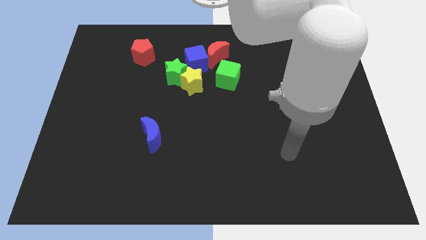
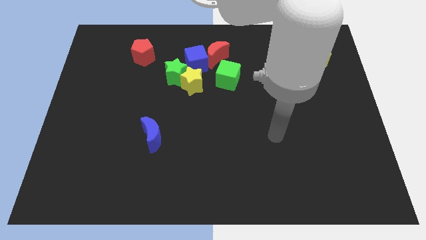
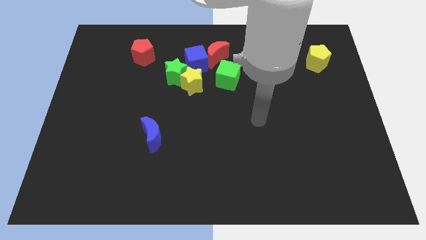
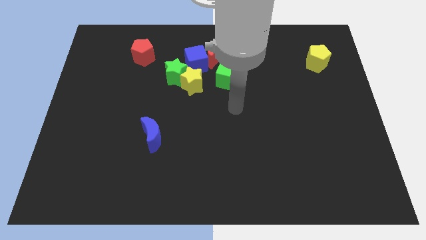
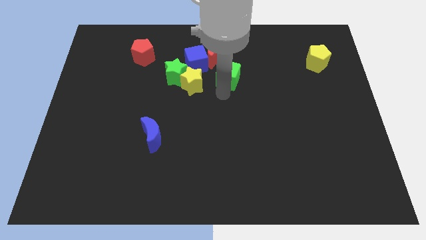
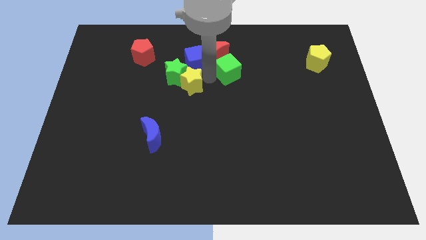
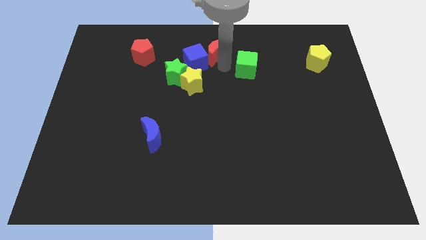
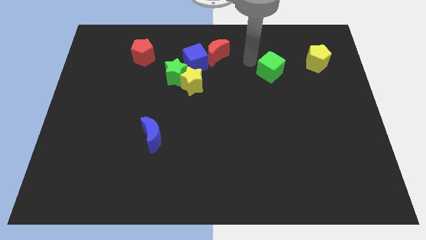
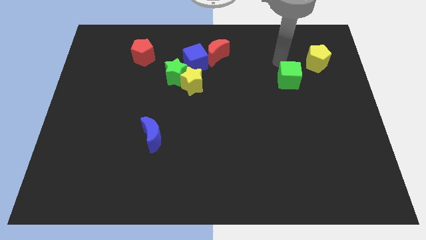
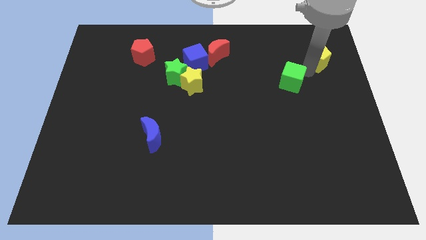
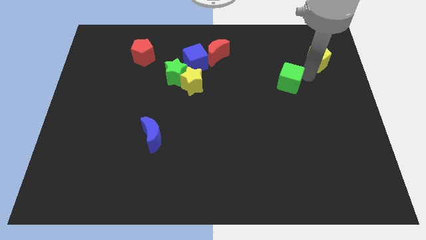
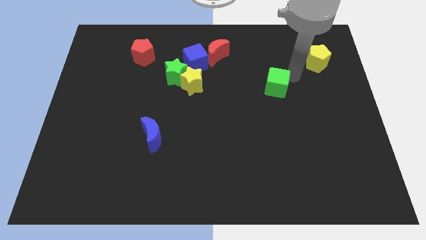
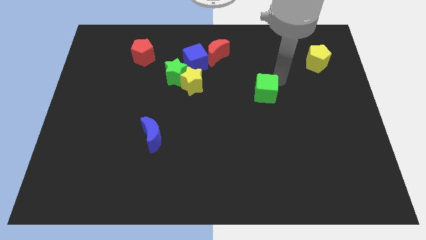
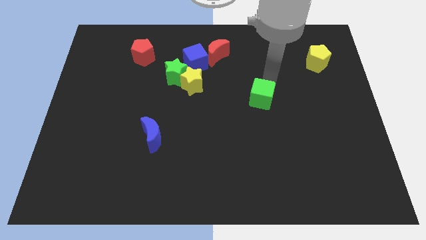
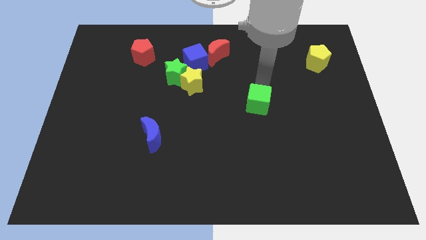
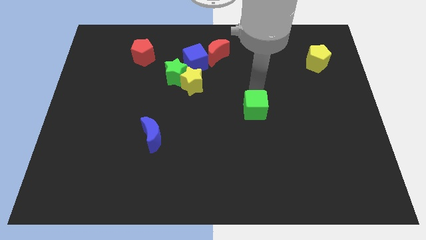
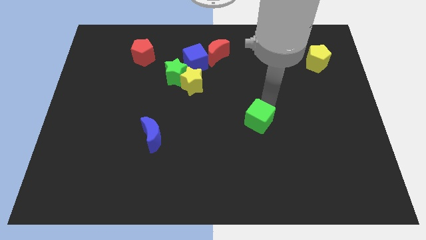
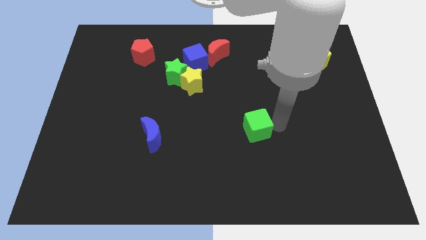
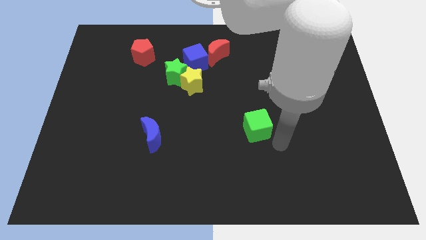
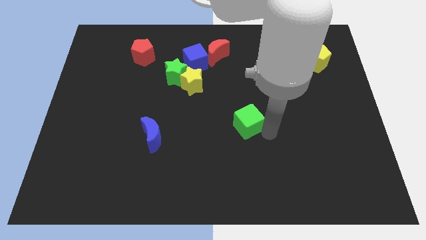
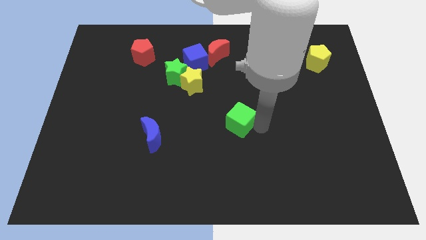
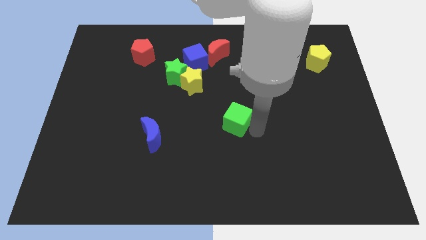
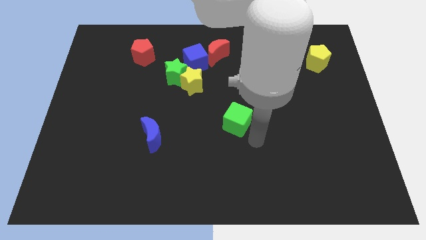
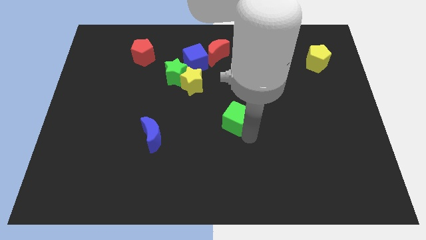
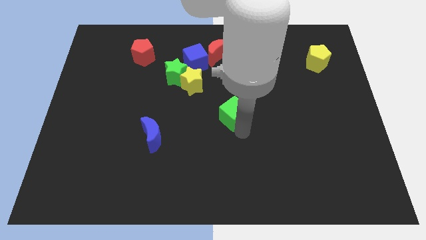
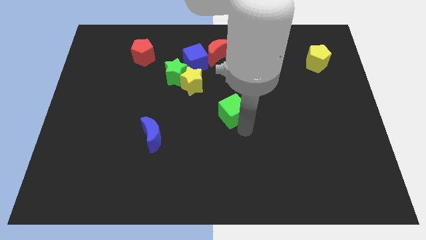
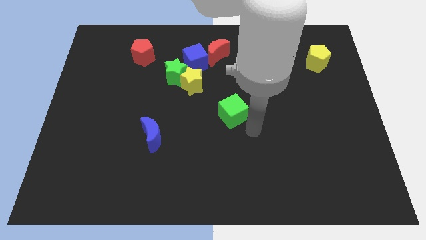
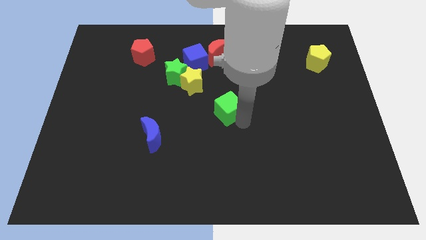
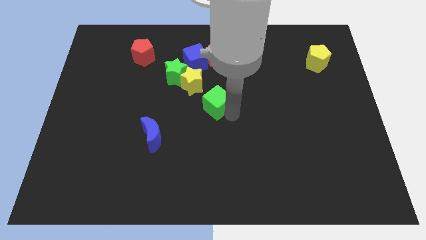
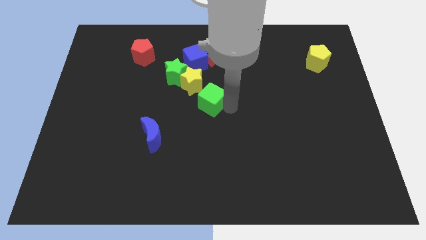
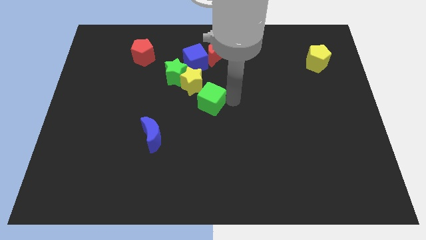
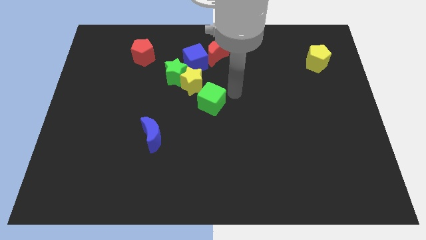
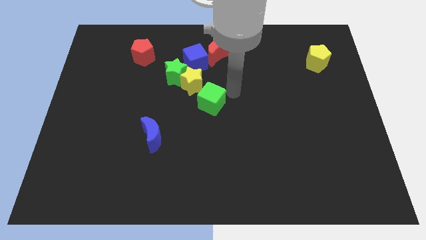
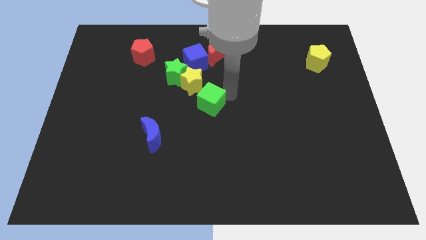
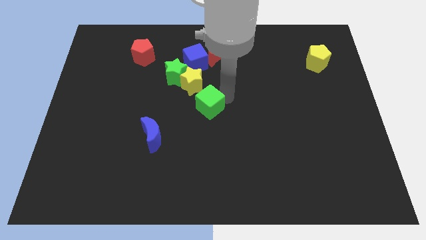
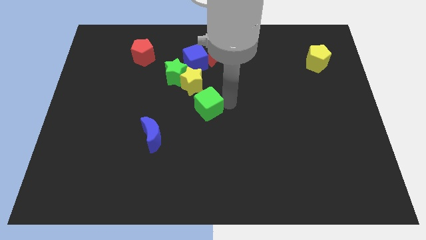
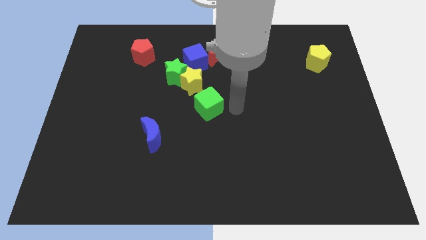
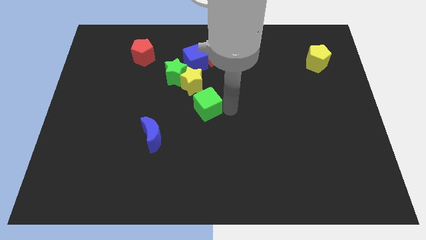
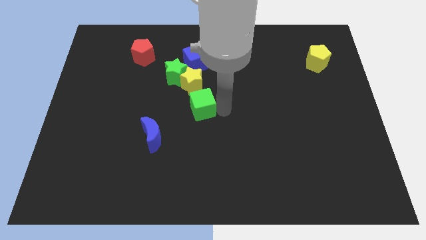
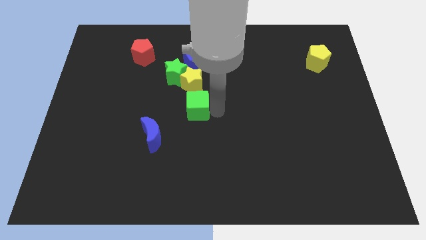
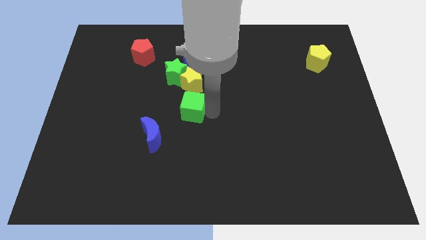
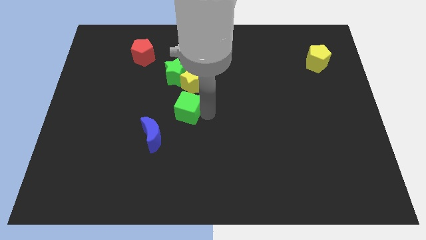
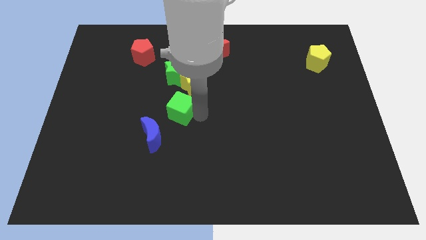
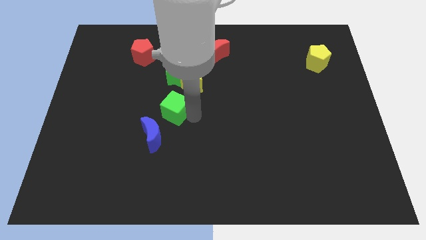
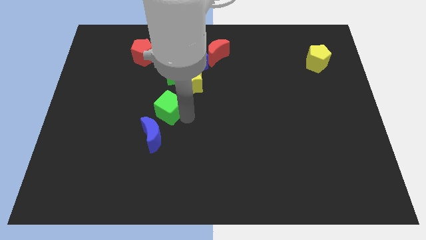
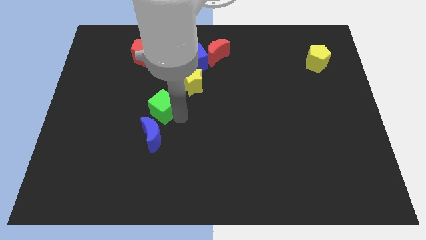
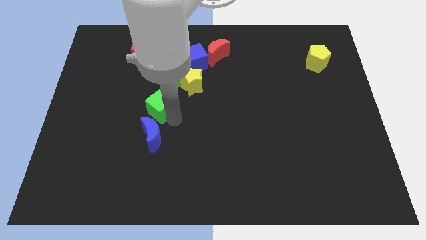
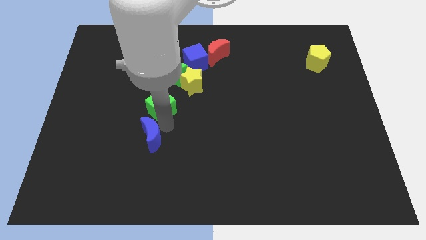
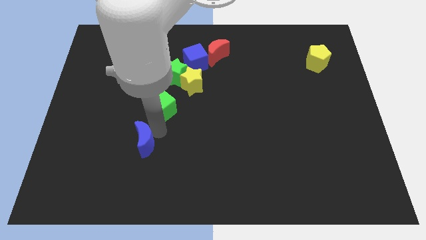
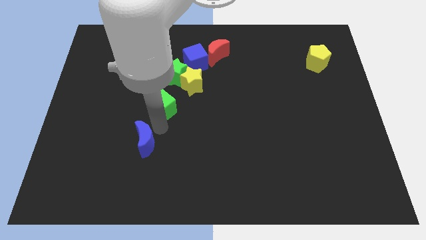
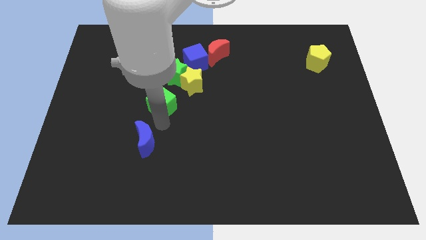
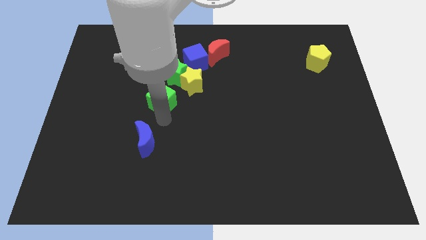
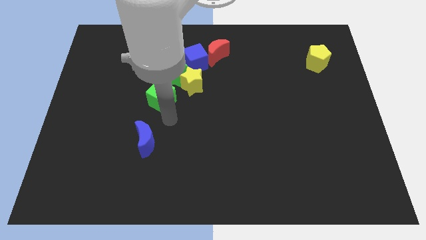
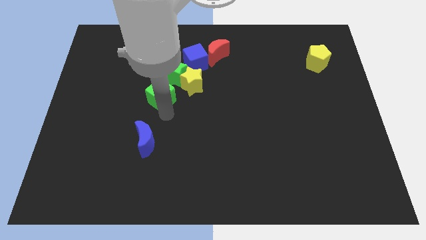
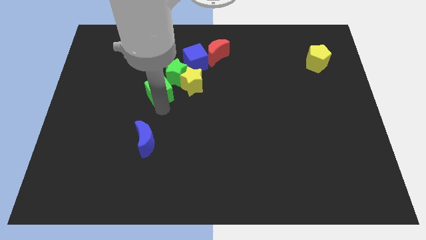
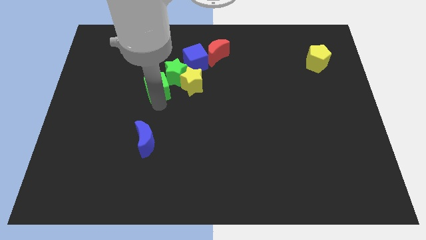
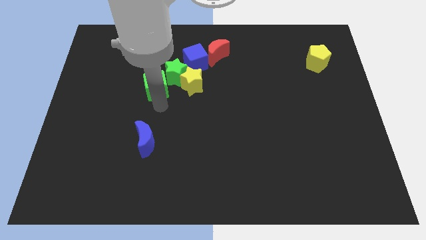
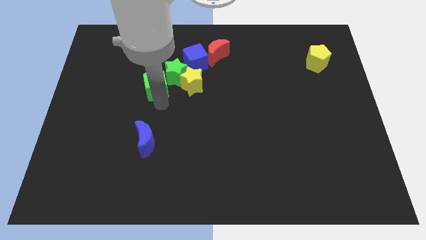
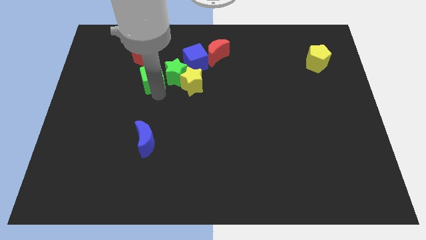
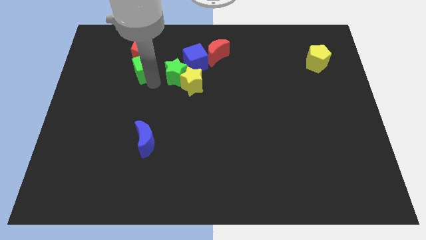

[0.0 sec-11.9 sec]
slide the green cube towards the red pentagon

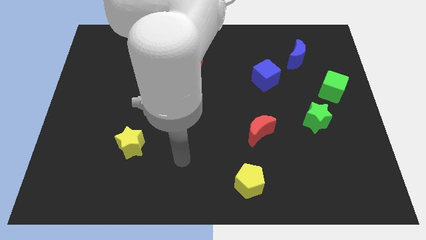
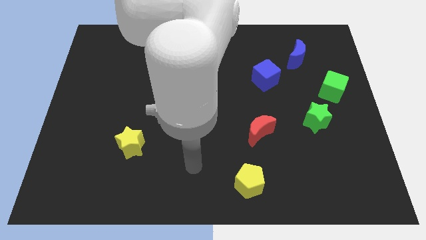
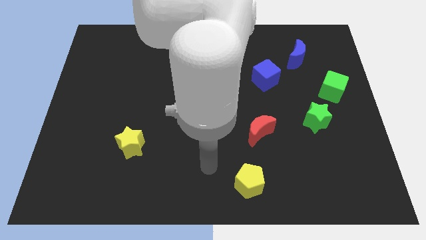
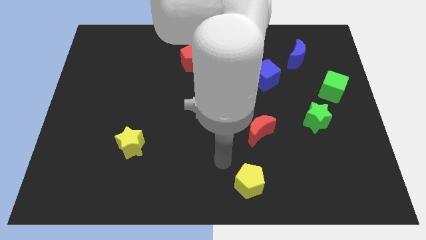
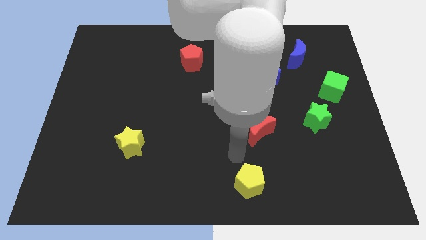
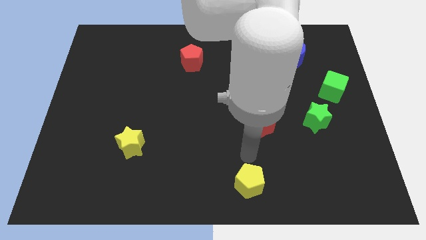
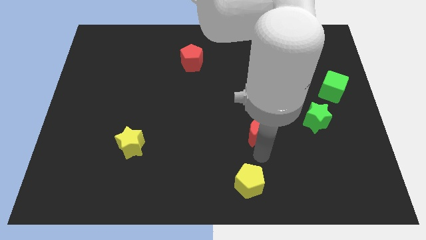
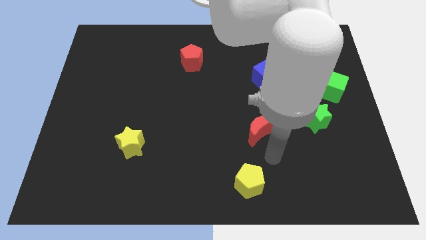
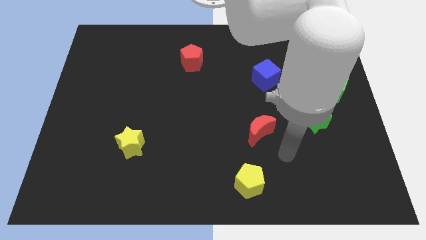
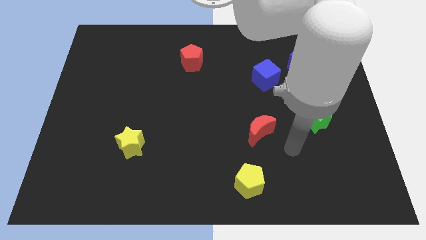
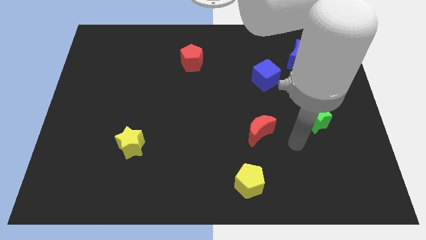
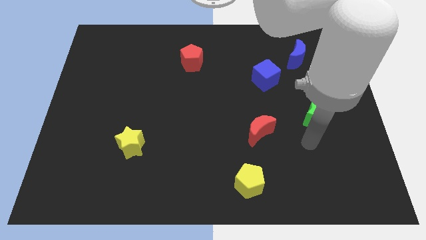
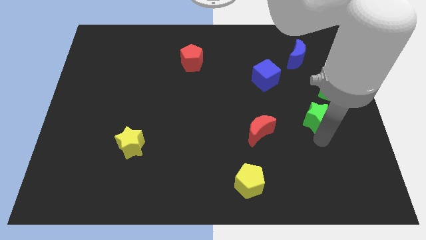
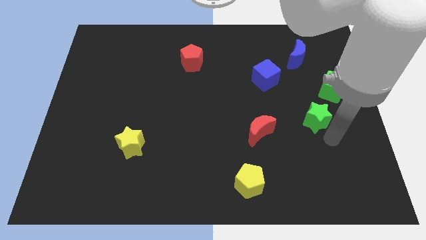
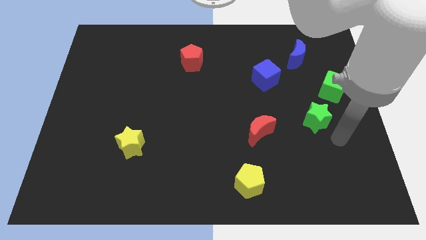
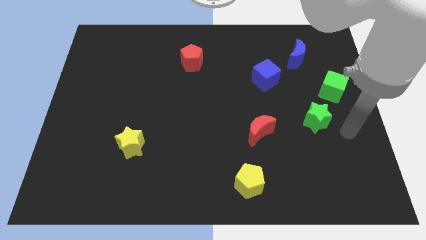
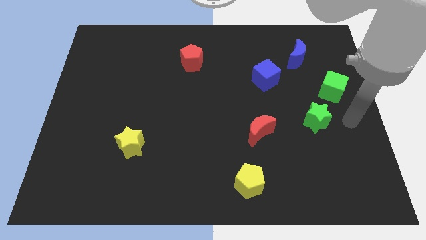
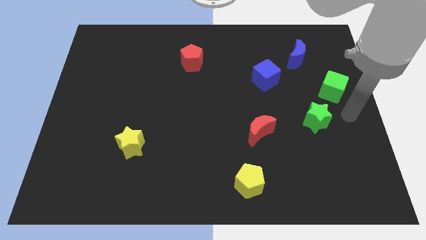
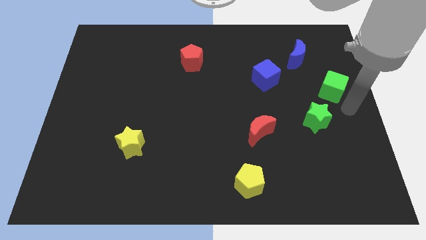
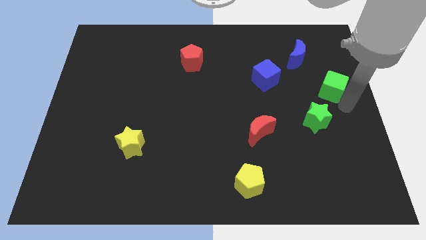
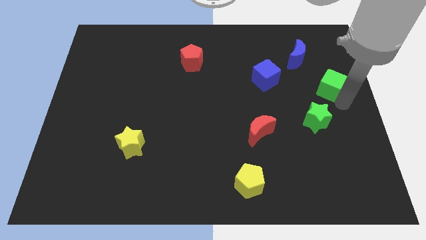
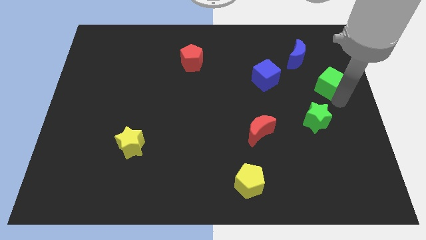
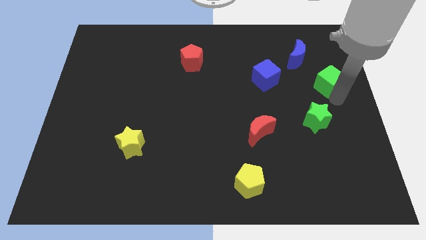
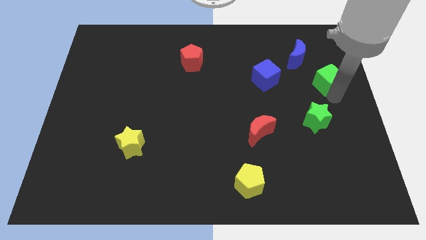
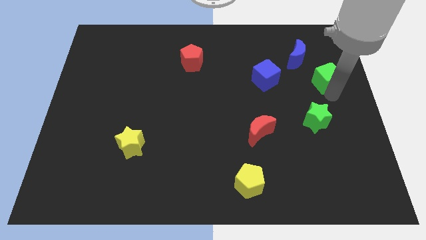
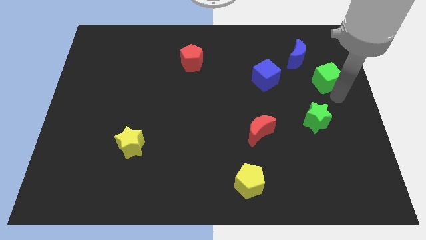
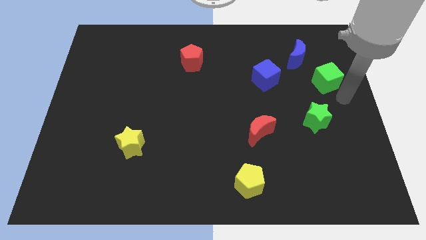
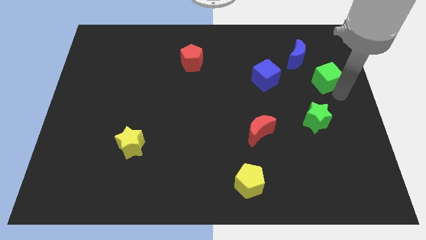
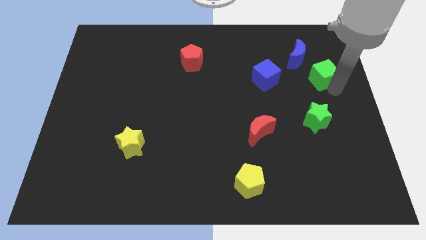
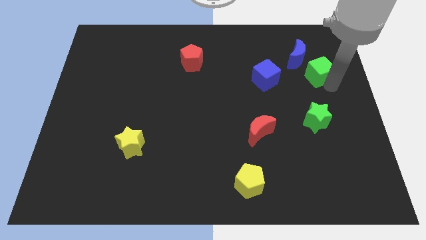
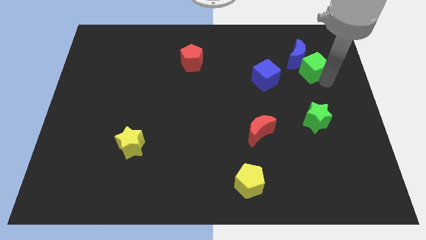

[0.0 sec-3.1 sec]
slide the green cube to the blue moon
